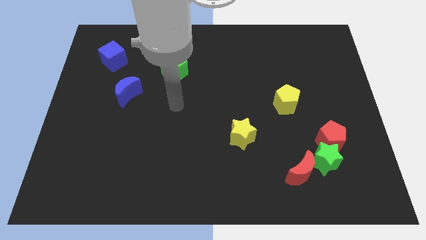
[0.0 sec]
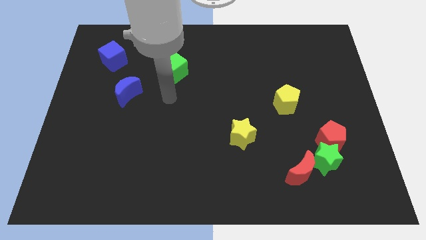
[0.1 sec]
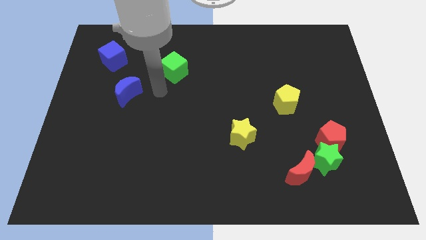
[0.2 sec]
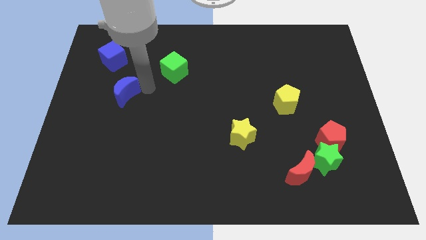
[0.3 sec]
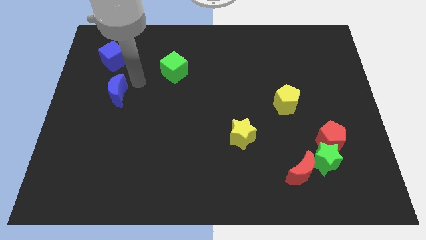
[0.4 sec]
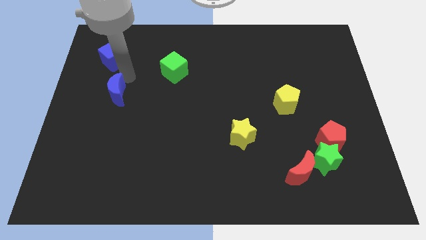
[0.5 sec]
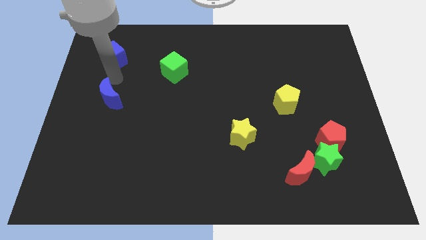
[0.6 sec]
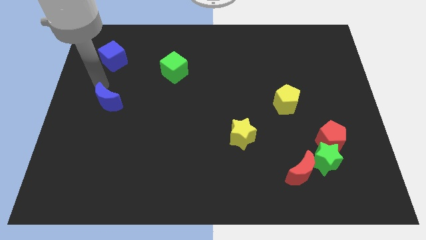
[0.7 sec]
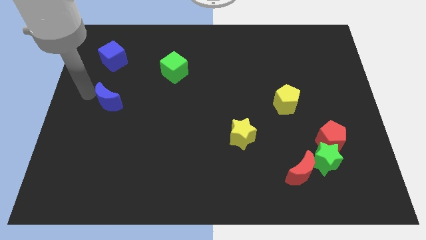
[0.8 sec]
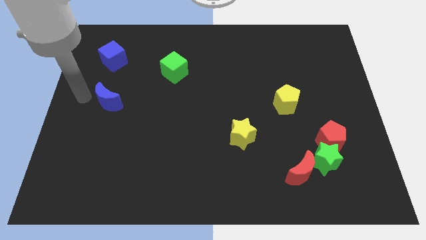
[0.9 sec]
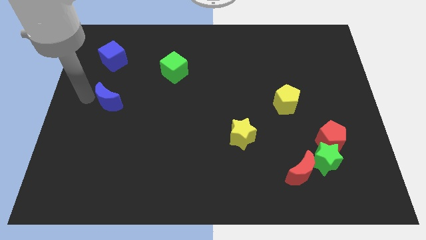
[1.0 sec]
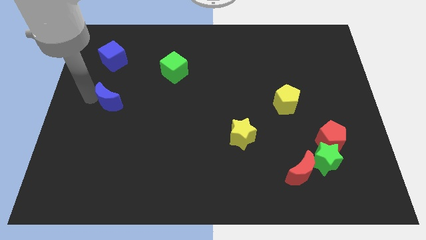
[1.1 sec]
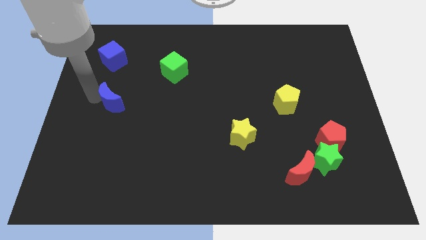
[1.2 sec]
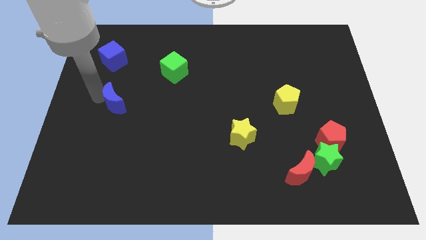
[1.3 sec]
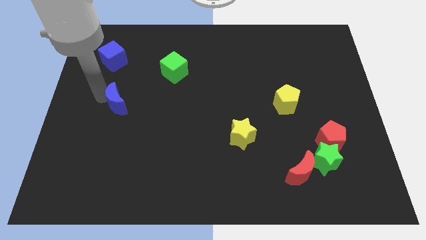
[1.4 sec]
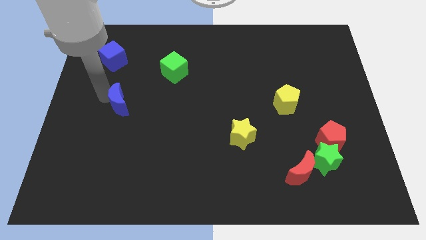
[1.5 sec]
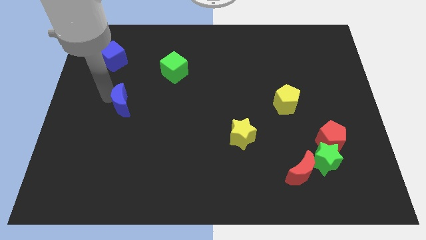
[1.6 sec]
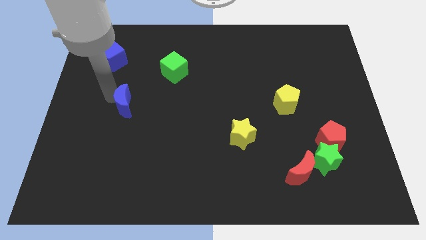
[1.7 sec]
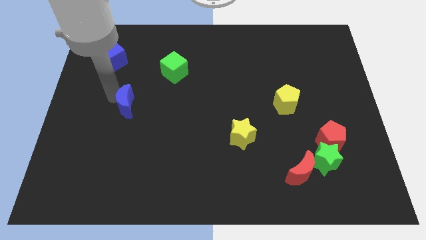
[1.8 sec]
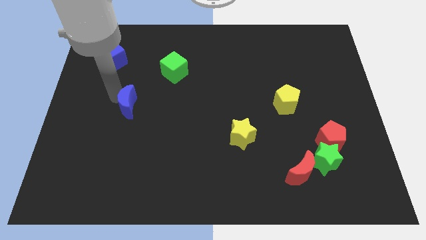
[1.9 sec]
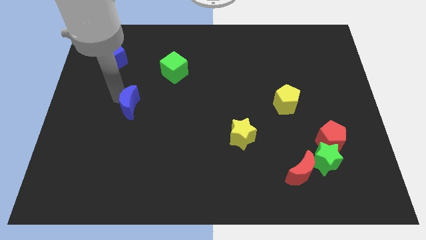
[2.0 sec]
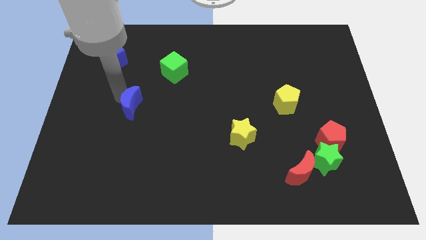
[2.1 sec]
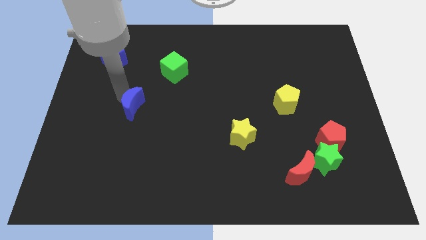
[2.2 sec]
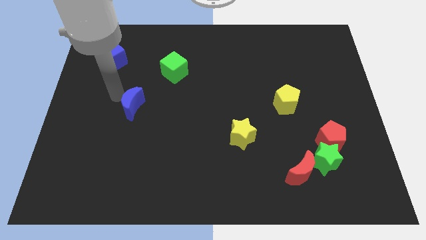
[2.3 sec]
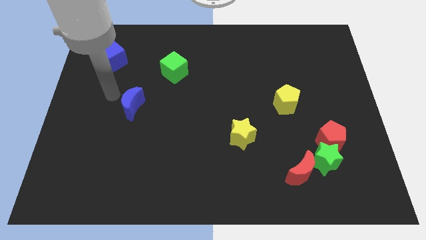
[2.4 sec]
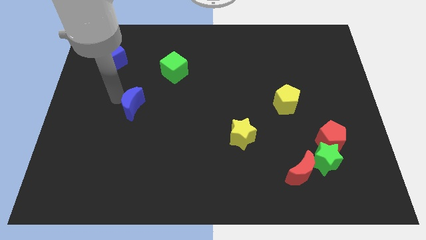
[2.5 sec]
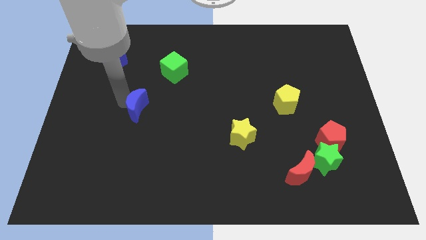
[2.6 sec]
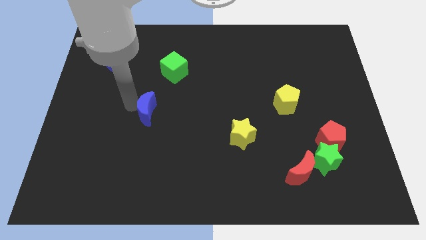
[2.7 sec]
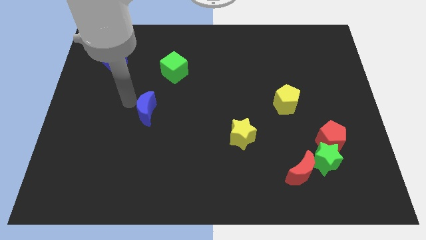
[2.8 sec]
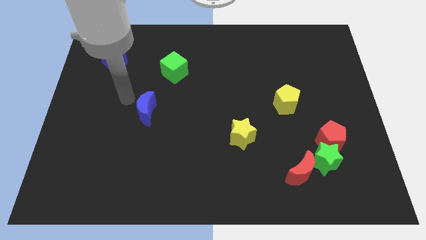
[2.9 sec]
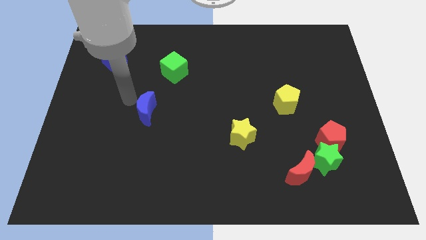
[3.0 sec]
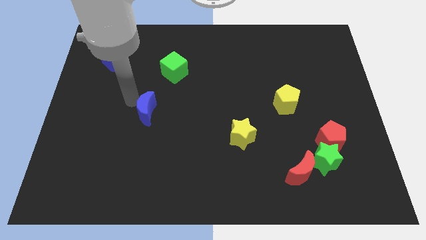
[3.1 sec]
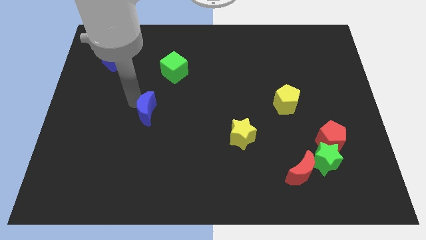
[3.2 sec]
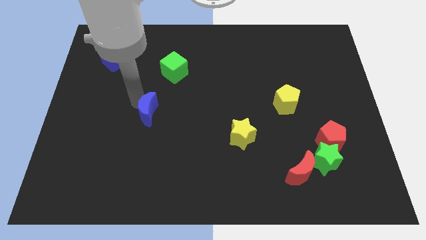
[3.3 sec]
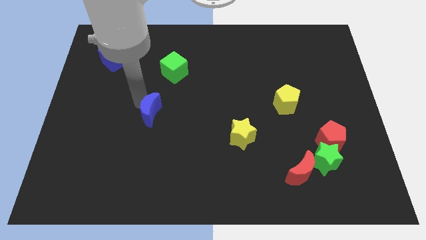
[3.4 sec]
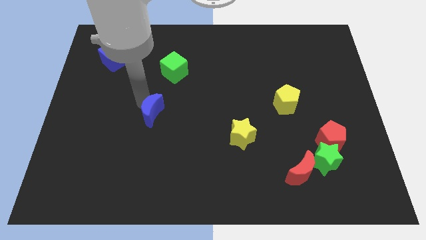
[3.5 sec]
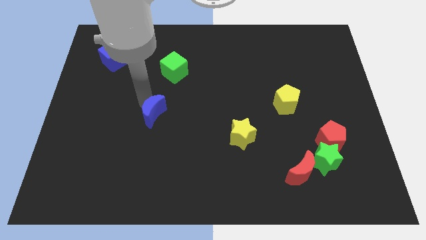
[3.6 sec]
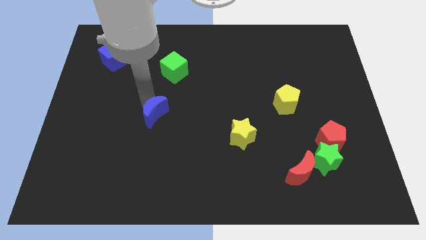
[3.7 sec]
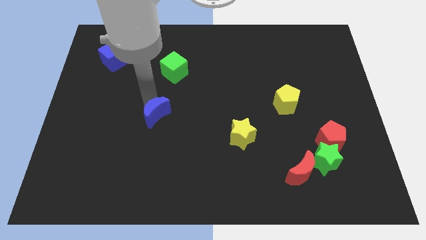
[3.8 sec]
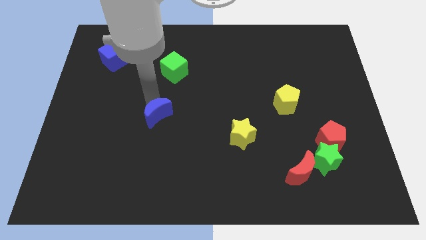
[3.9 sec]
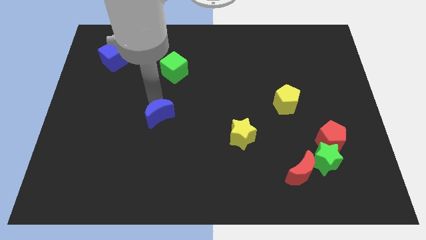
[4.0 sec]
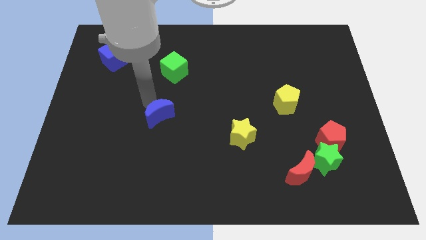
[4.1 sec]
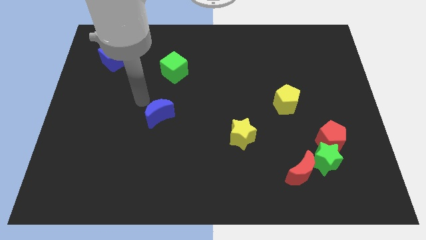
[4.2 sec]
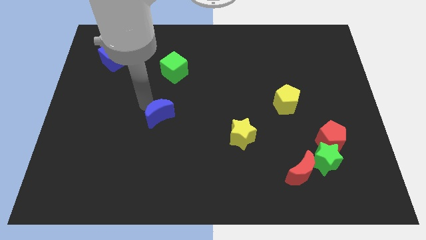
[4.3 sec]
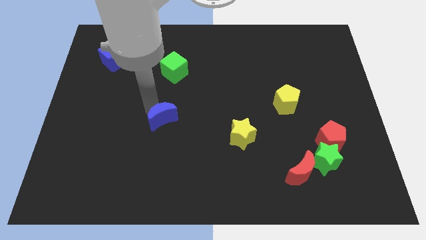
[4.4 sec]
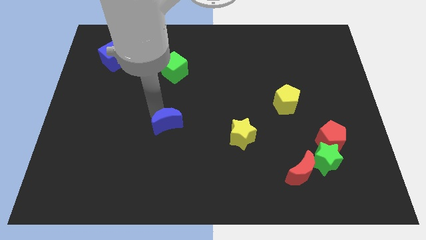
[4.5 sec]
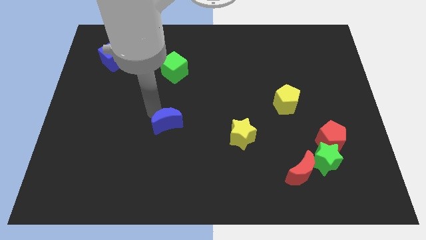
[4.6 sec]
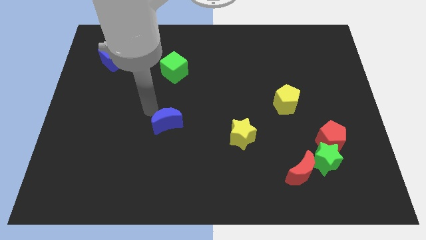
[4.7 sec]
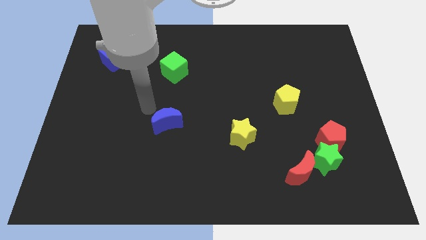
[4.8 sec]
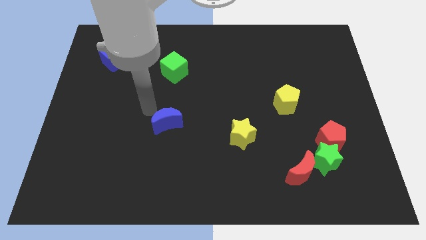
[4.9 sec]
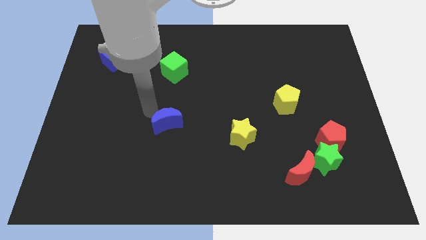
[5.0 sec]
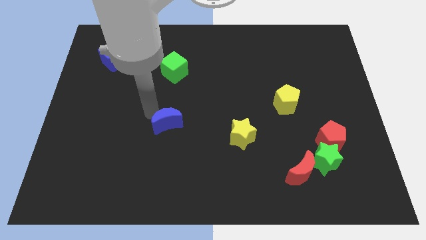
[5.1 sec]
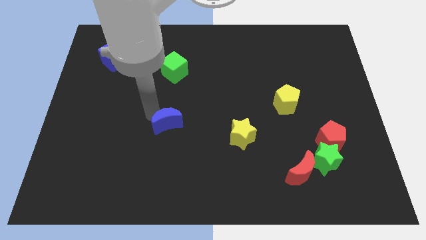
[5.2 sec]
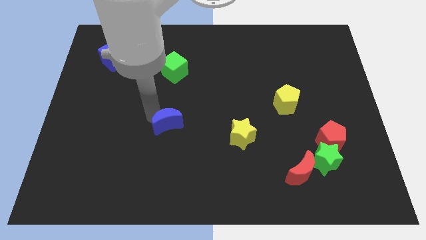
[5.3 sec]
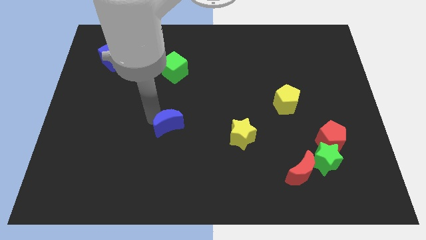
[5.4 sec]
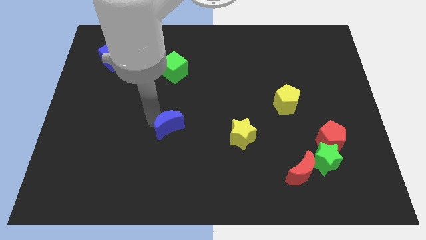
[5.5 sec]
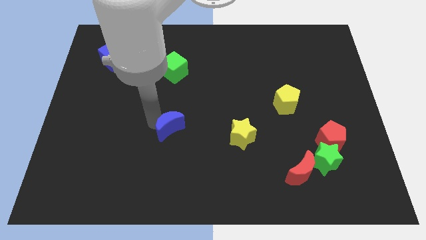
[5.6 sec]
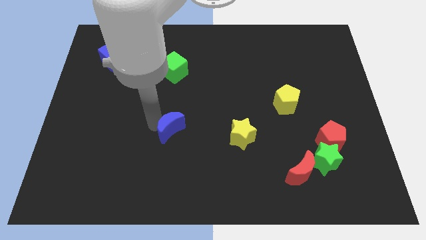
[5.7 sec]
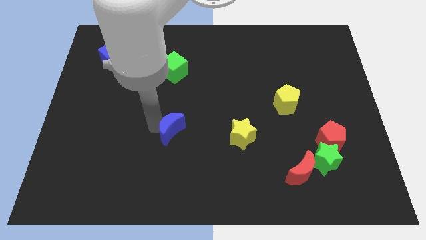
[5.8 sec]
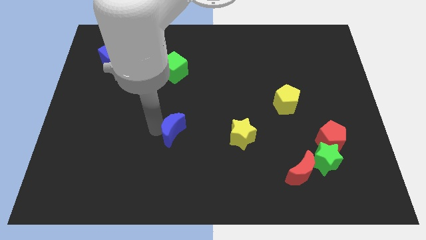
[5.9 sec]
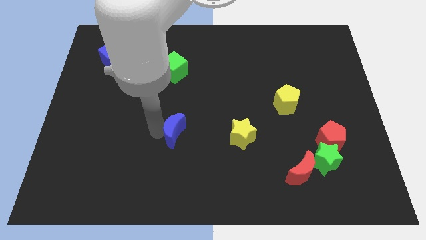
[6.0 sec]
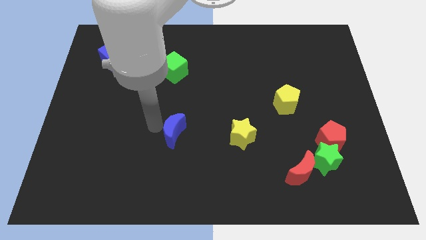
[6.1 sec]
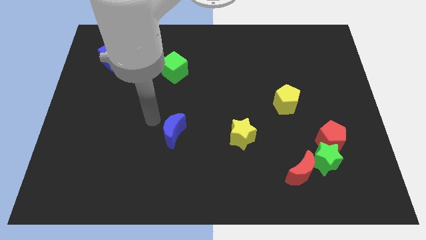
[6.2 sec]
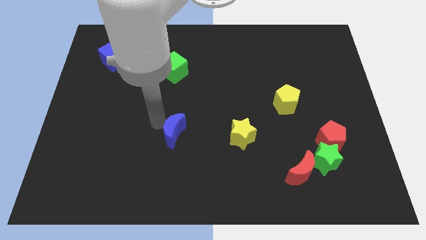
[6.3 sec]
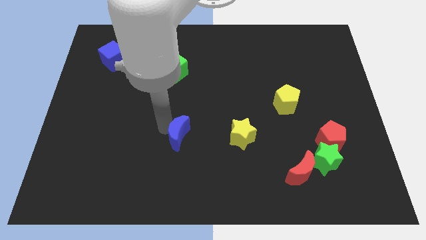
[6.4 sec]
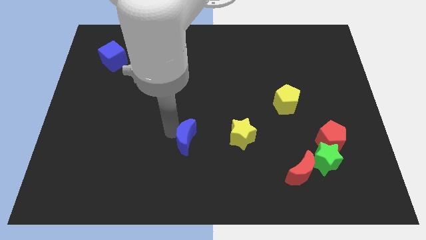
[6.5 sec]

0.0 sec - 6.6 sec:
move the blue moon downwards and right

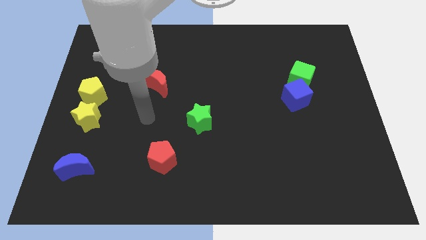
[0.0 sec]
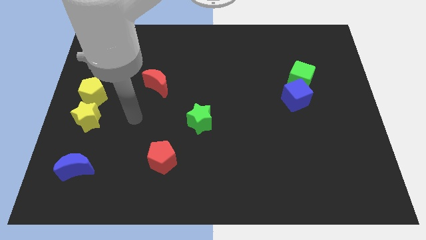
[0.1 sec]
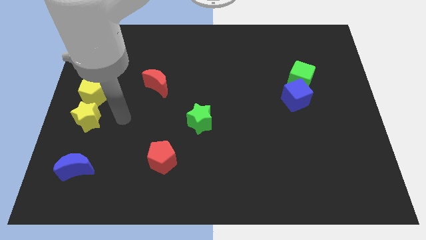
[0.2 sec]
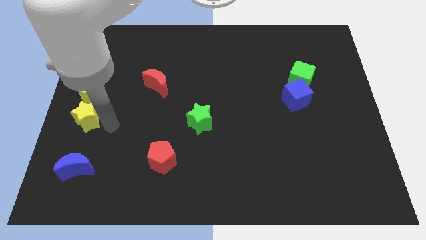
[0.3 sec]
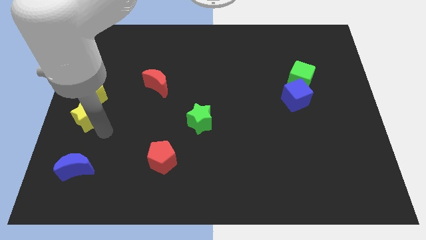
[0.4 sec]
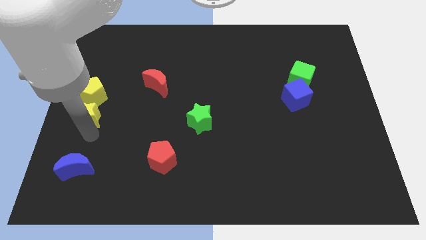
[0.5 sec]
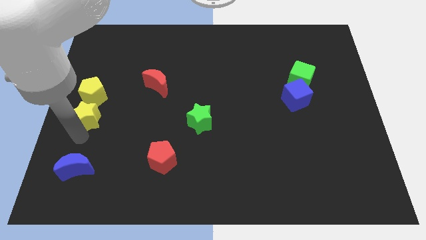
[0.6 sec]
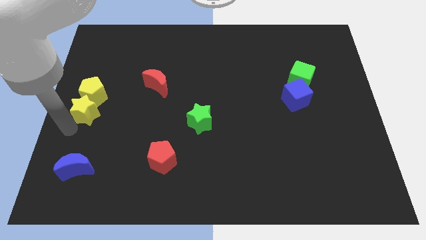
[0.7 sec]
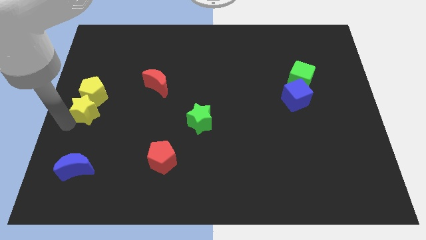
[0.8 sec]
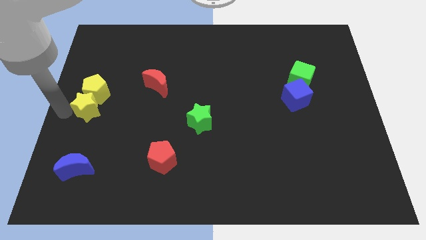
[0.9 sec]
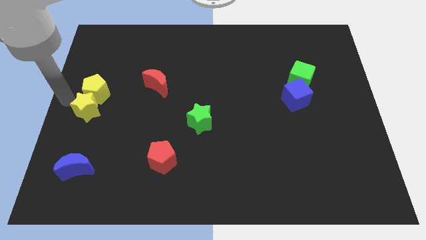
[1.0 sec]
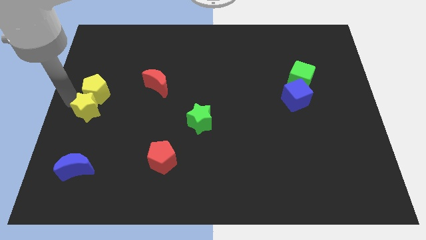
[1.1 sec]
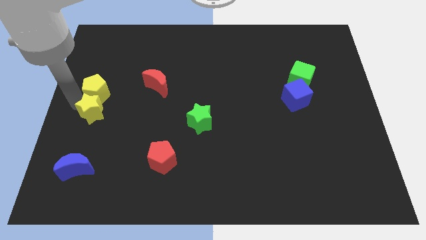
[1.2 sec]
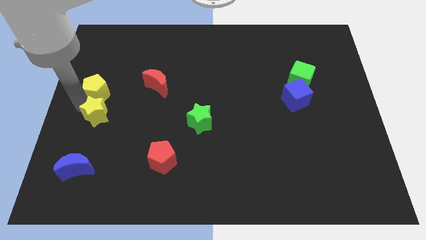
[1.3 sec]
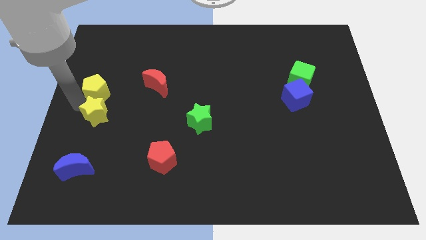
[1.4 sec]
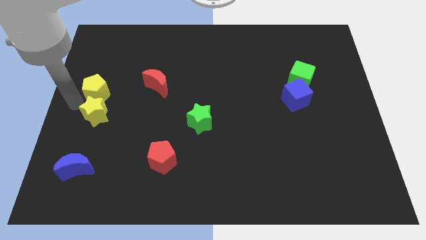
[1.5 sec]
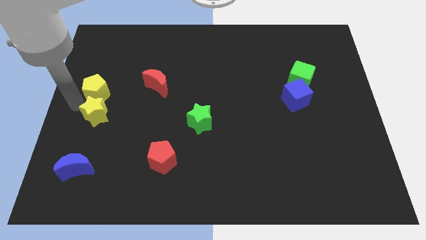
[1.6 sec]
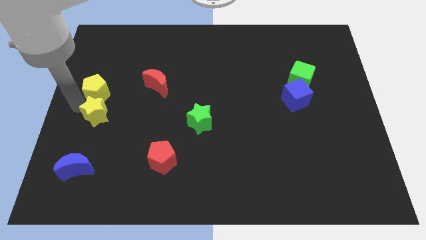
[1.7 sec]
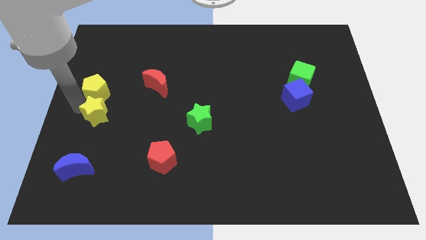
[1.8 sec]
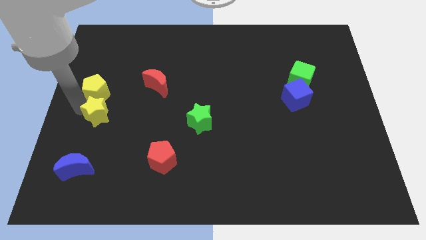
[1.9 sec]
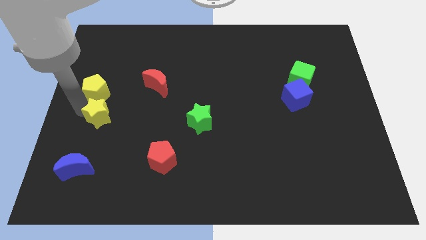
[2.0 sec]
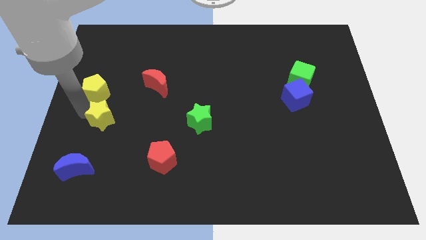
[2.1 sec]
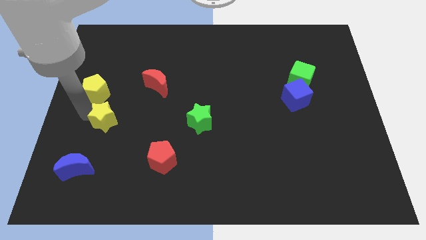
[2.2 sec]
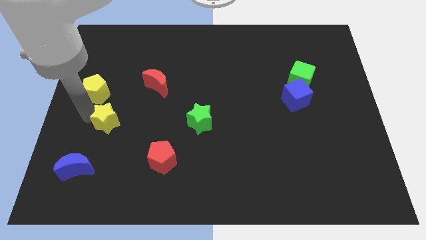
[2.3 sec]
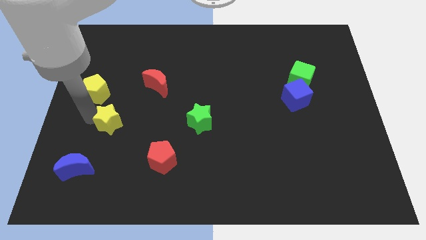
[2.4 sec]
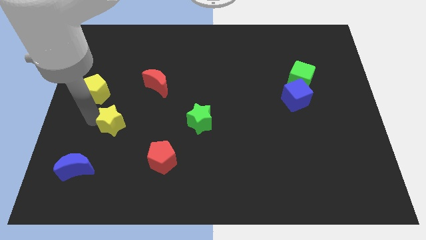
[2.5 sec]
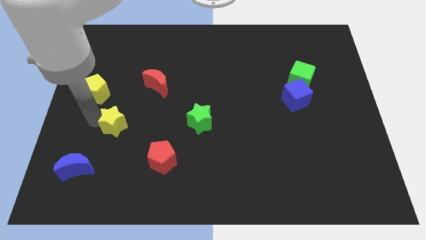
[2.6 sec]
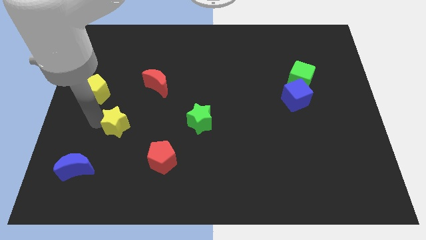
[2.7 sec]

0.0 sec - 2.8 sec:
push the yellow star slightly to the right
